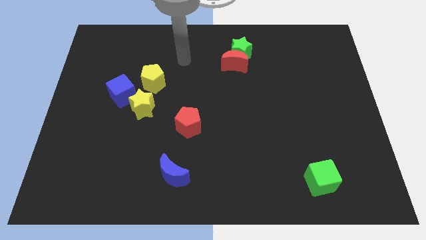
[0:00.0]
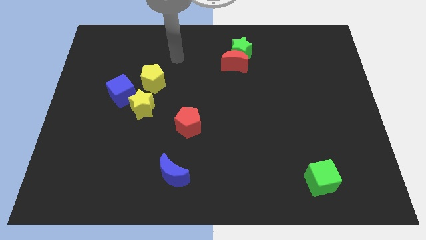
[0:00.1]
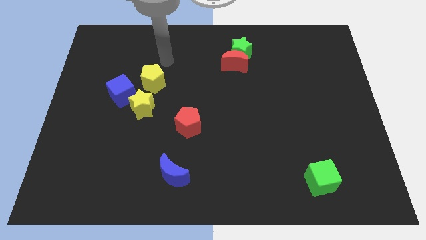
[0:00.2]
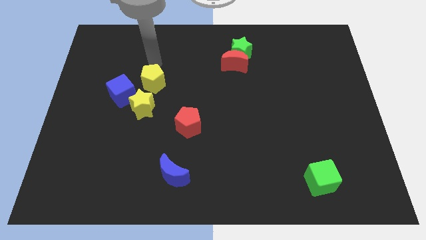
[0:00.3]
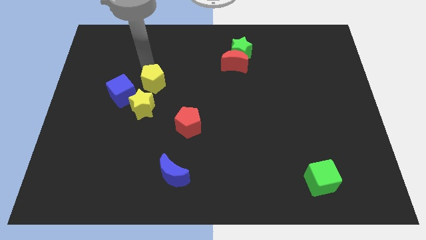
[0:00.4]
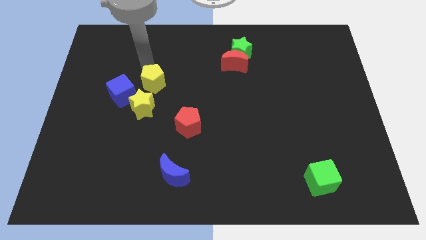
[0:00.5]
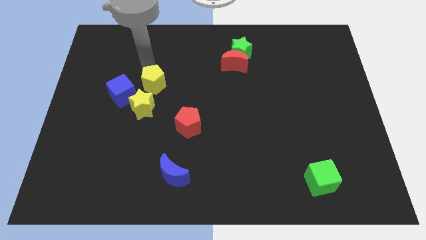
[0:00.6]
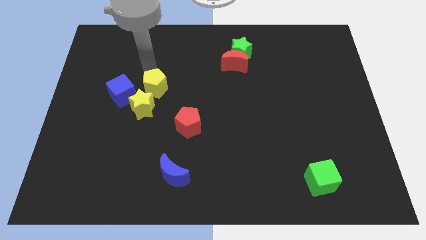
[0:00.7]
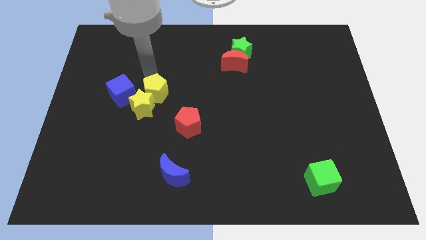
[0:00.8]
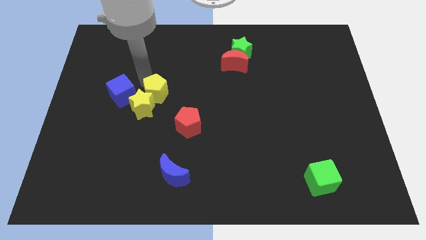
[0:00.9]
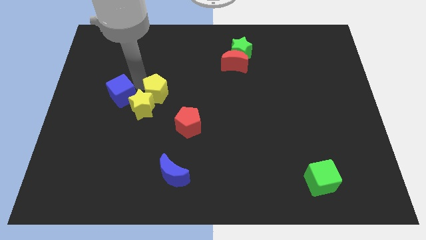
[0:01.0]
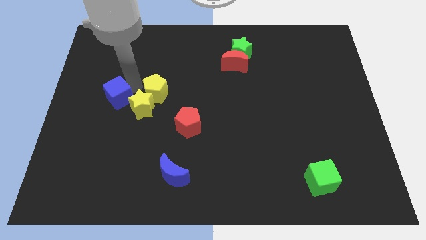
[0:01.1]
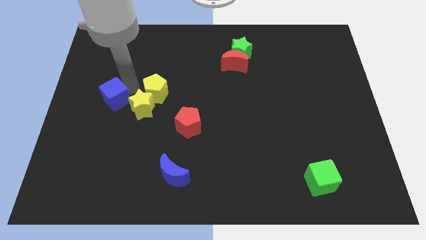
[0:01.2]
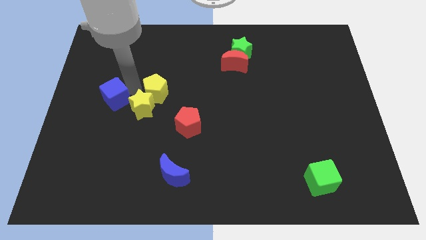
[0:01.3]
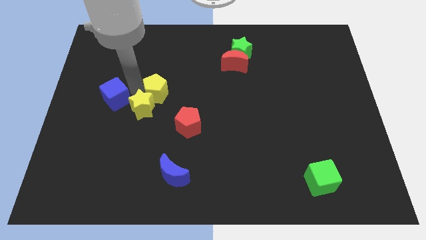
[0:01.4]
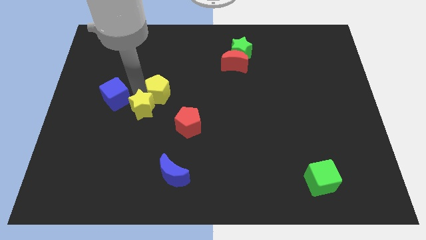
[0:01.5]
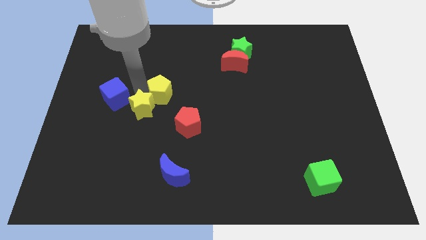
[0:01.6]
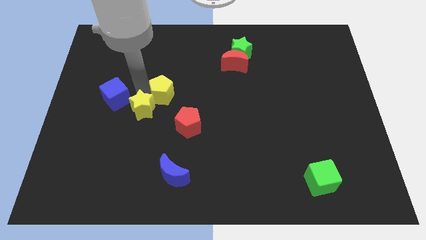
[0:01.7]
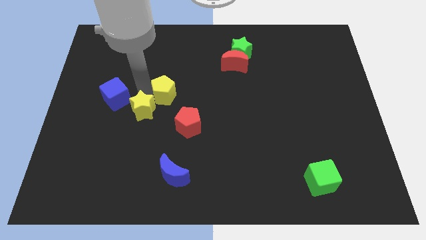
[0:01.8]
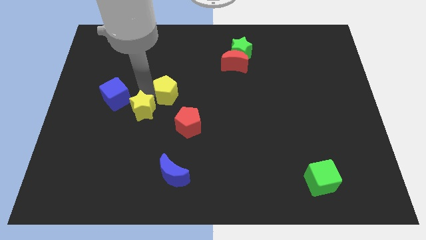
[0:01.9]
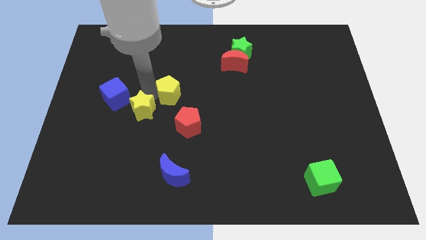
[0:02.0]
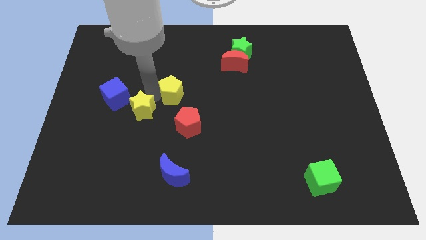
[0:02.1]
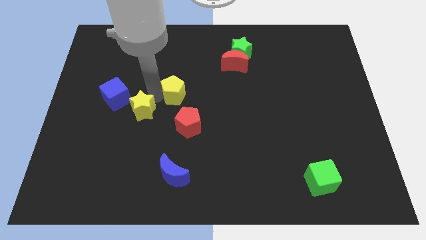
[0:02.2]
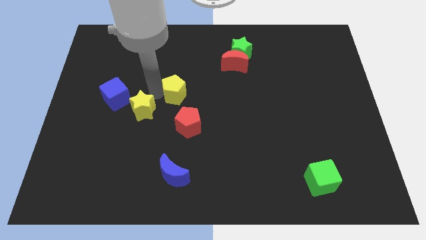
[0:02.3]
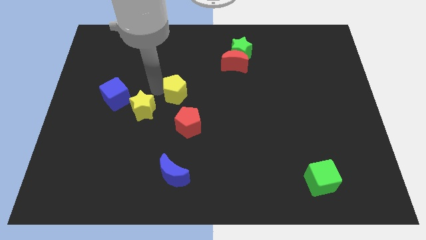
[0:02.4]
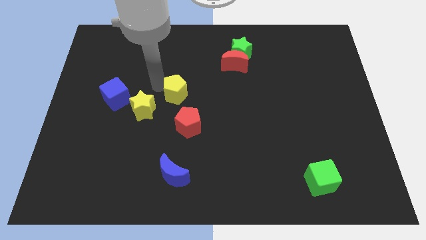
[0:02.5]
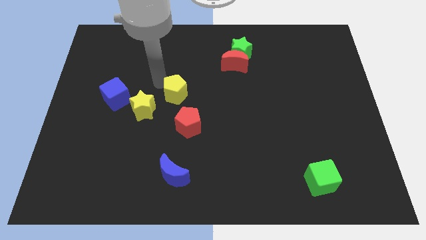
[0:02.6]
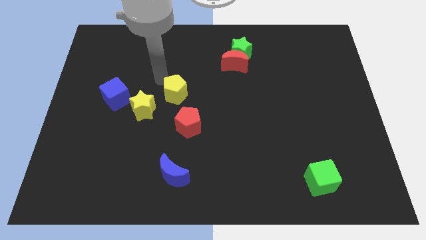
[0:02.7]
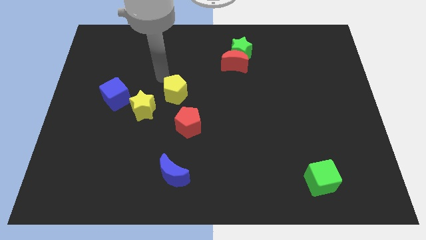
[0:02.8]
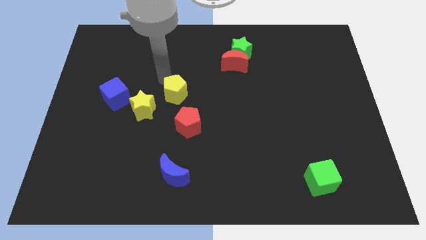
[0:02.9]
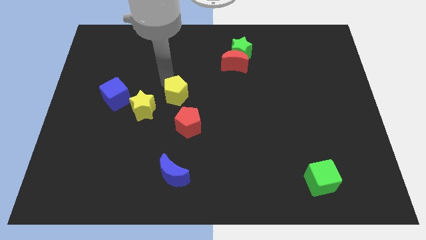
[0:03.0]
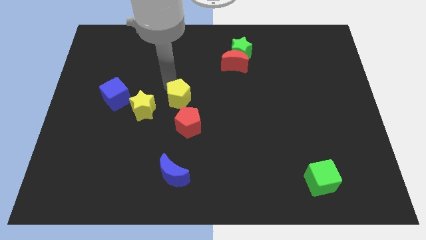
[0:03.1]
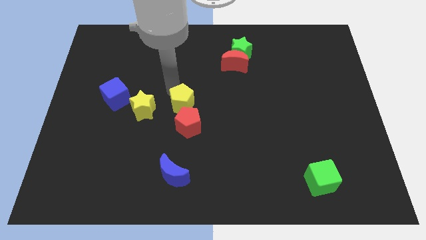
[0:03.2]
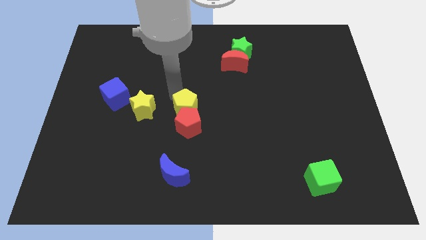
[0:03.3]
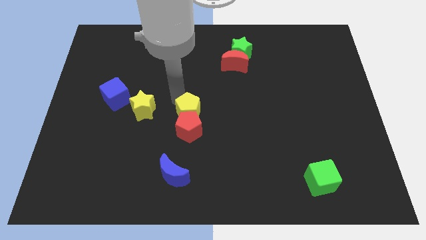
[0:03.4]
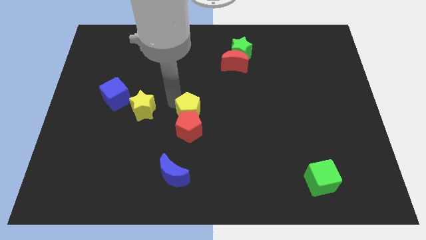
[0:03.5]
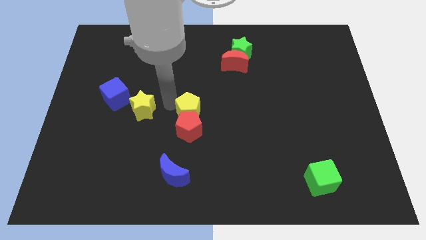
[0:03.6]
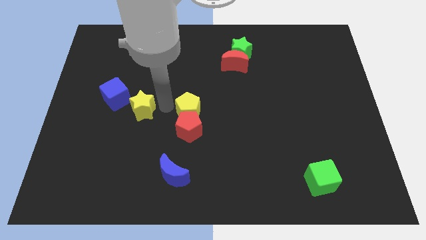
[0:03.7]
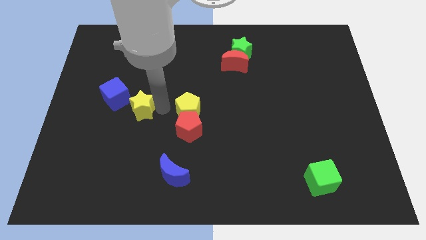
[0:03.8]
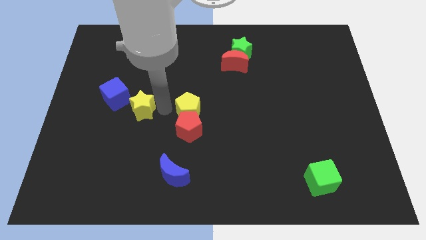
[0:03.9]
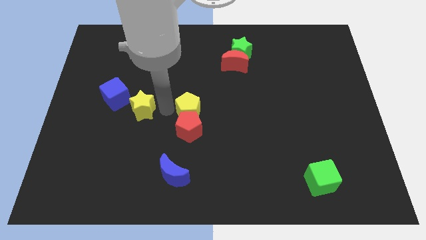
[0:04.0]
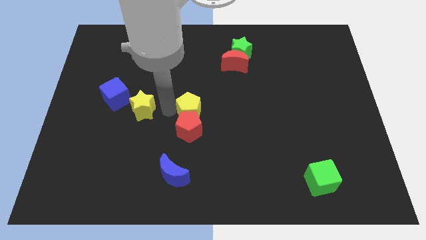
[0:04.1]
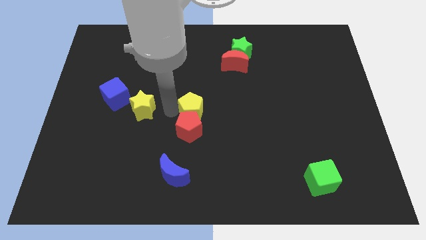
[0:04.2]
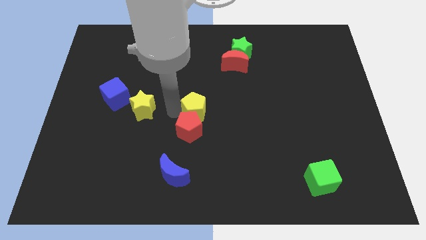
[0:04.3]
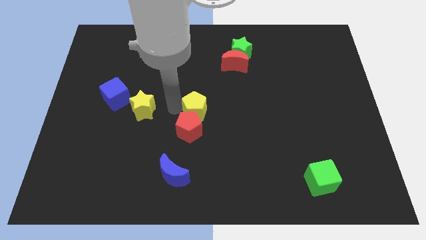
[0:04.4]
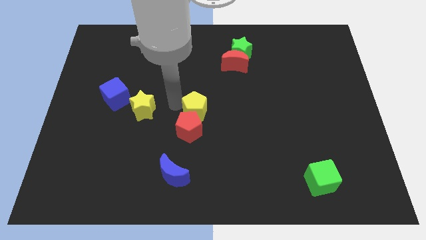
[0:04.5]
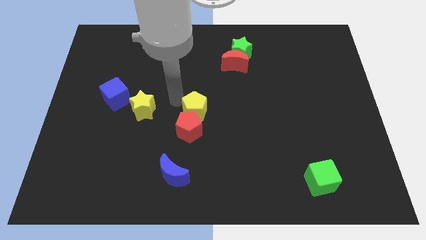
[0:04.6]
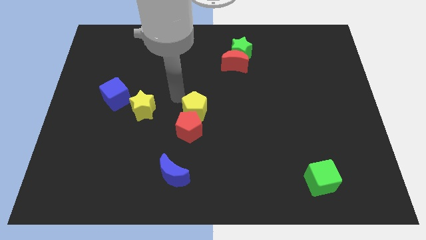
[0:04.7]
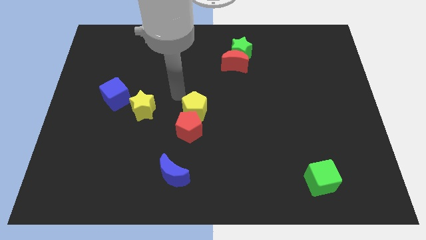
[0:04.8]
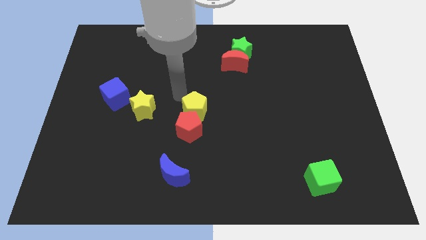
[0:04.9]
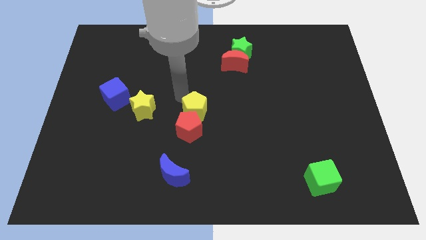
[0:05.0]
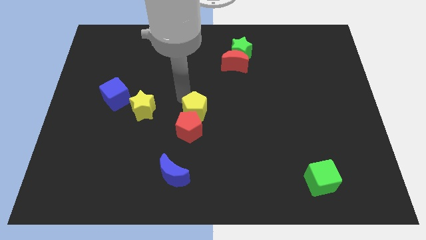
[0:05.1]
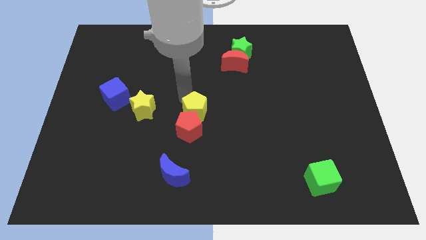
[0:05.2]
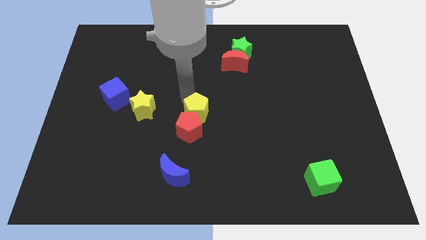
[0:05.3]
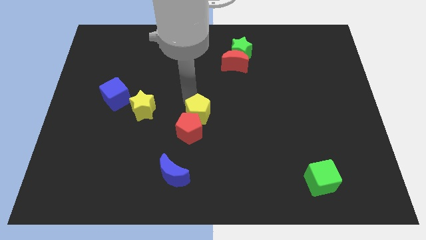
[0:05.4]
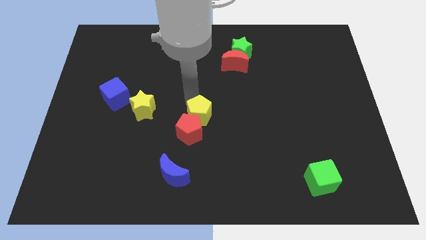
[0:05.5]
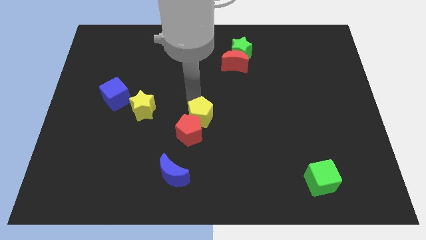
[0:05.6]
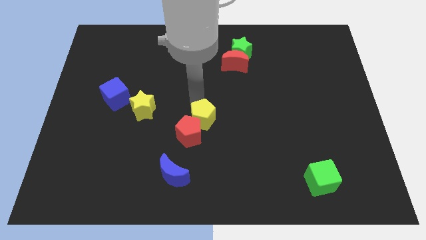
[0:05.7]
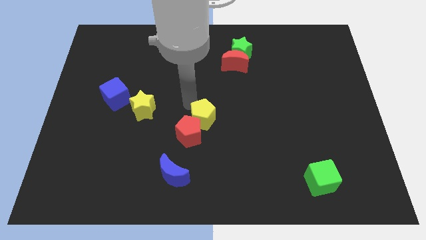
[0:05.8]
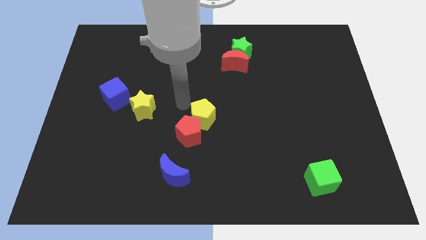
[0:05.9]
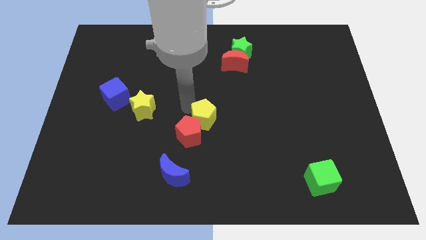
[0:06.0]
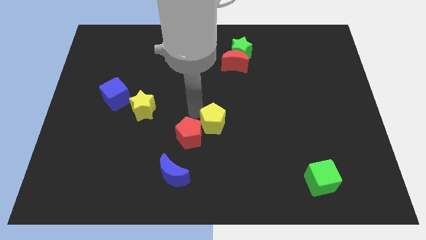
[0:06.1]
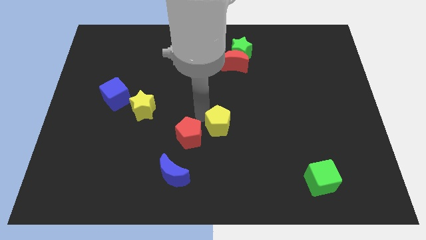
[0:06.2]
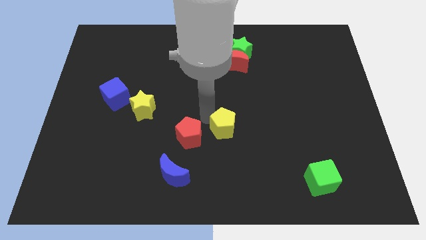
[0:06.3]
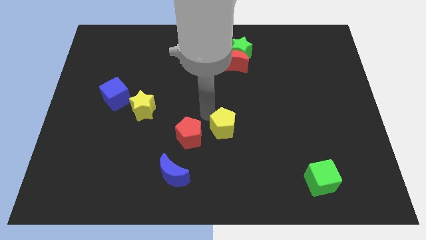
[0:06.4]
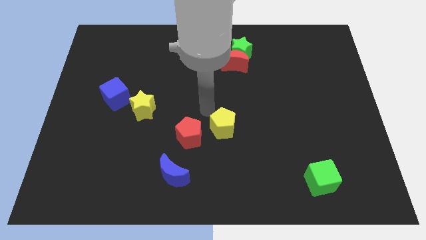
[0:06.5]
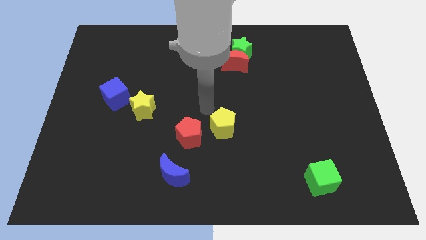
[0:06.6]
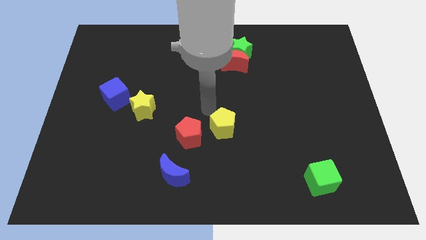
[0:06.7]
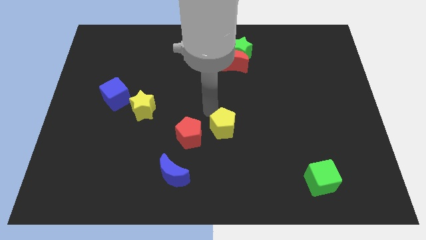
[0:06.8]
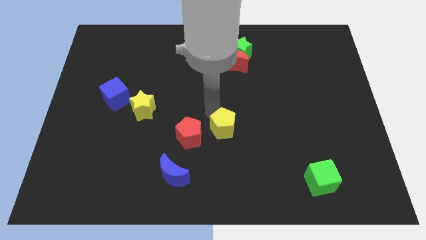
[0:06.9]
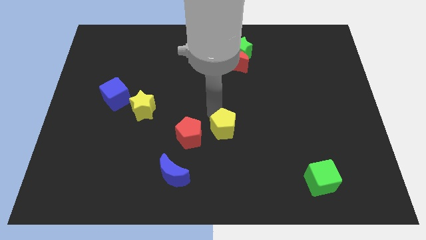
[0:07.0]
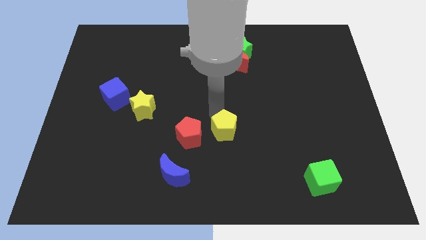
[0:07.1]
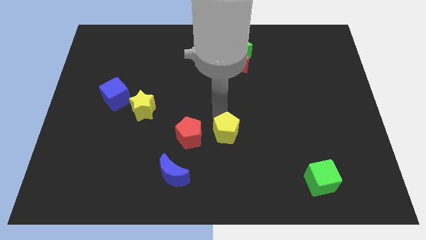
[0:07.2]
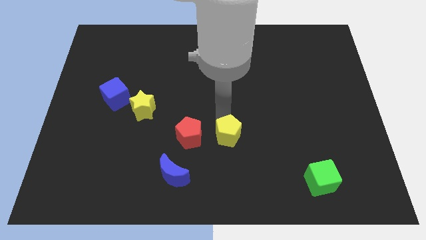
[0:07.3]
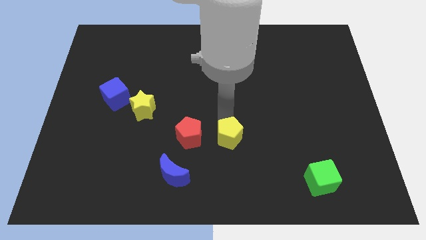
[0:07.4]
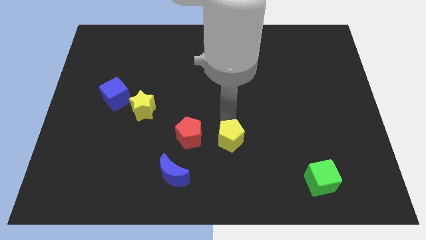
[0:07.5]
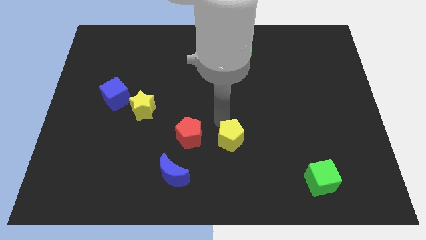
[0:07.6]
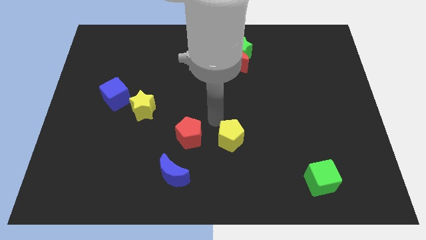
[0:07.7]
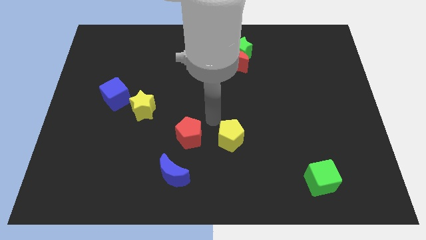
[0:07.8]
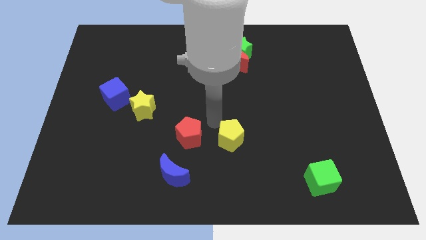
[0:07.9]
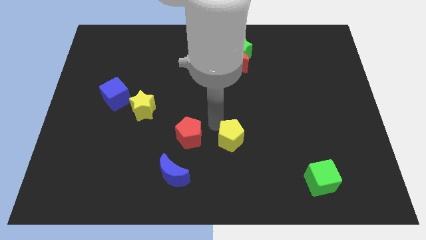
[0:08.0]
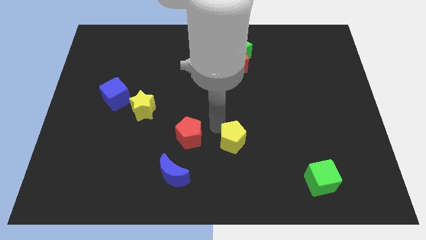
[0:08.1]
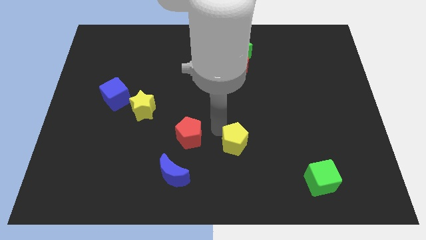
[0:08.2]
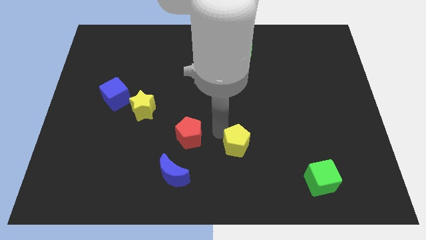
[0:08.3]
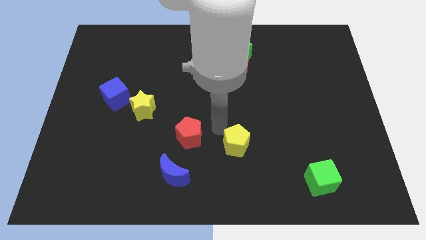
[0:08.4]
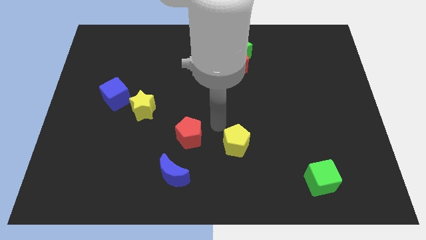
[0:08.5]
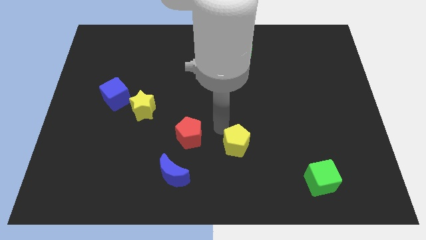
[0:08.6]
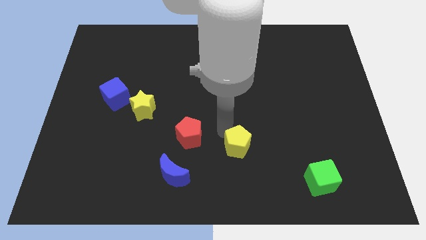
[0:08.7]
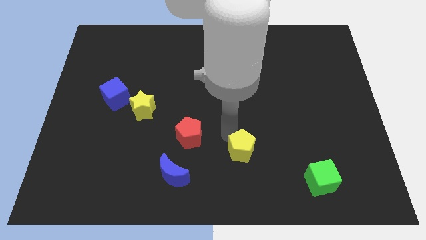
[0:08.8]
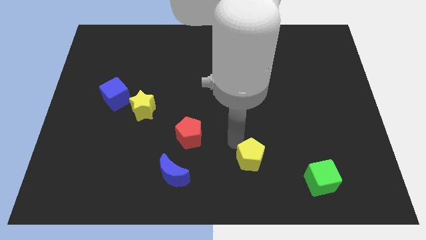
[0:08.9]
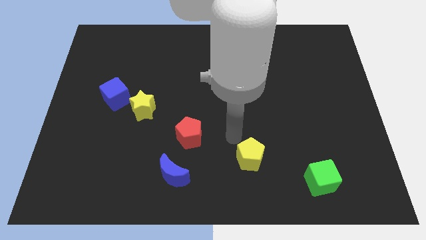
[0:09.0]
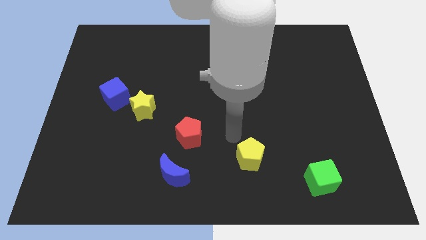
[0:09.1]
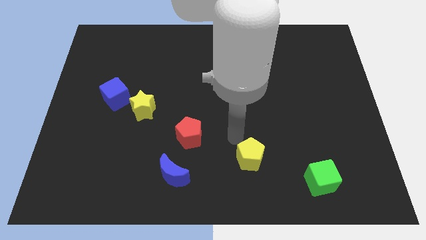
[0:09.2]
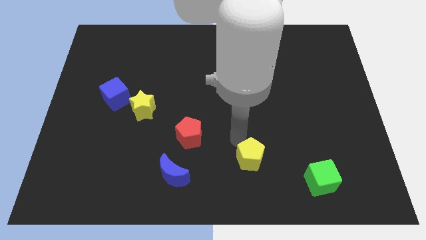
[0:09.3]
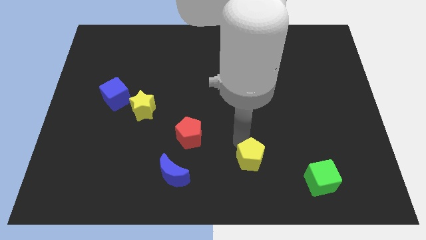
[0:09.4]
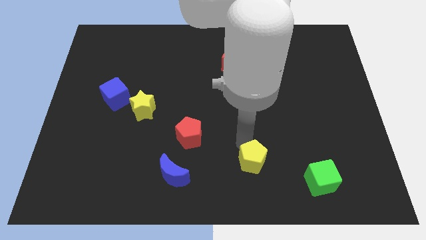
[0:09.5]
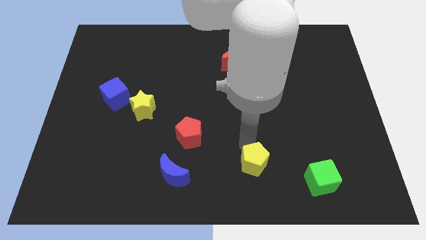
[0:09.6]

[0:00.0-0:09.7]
slide the yellow pentagon left of the green cube
